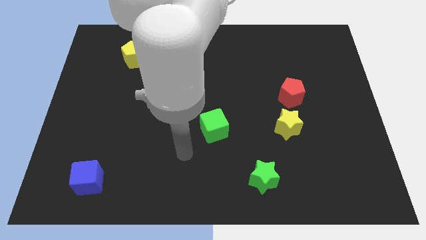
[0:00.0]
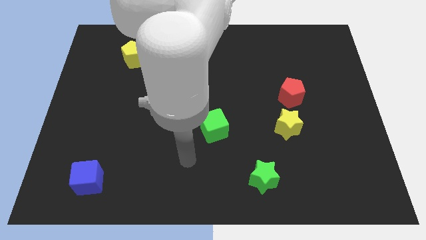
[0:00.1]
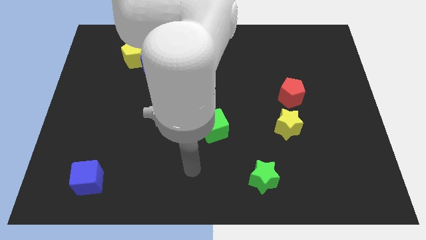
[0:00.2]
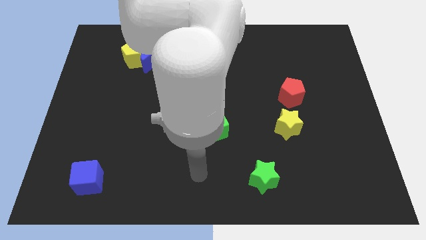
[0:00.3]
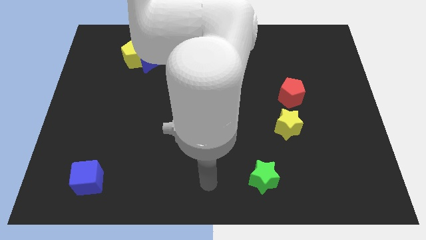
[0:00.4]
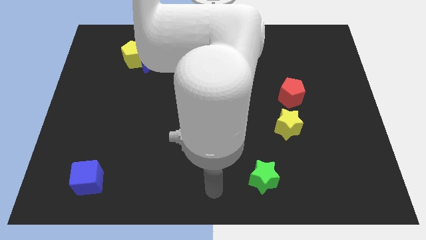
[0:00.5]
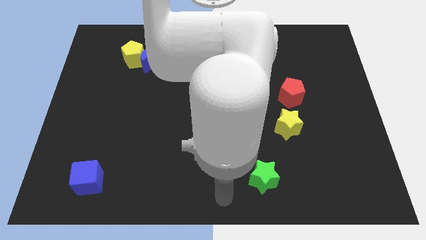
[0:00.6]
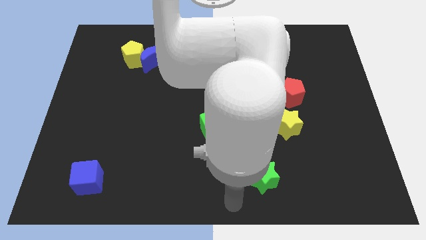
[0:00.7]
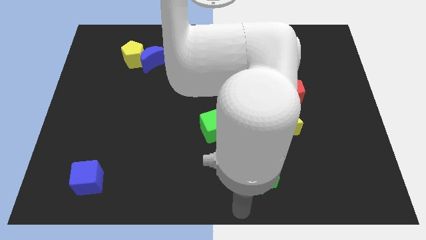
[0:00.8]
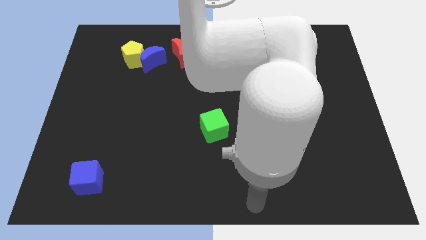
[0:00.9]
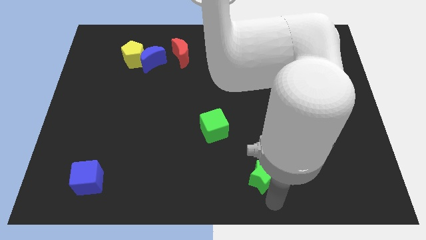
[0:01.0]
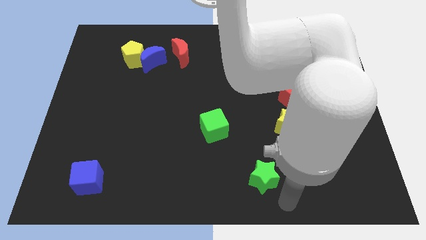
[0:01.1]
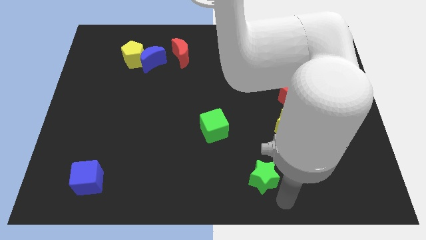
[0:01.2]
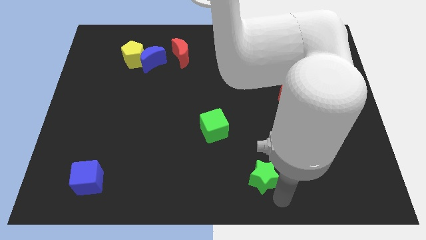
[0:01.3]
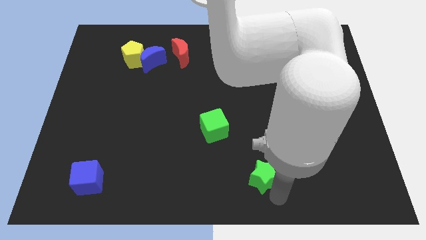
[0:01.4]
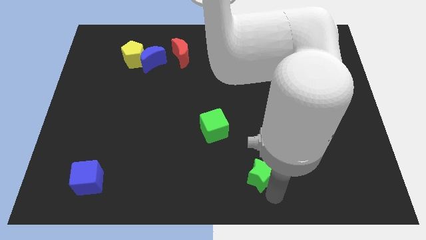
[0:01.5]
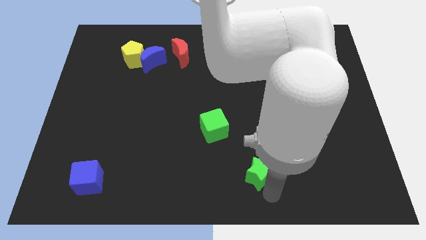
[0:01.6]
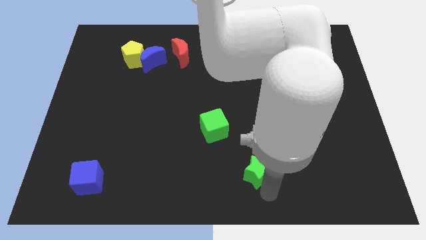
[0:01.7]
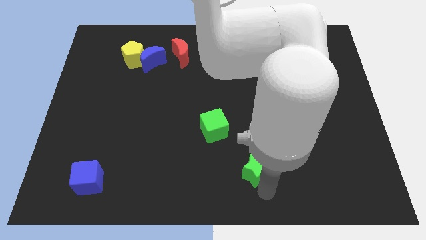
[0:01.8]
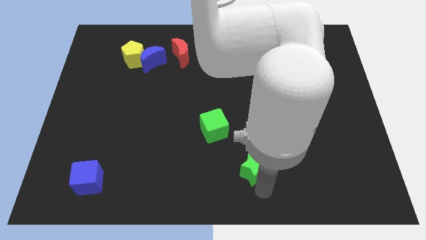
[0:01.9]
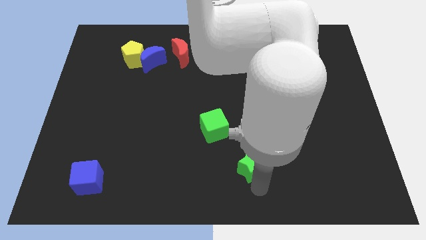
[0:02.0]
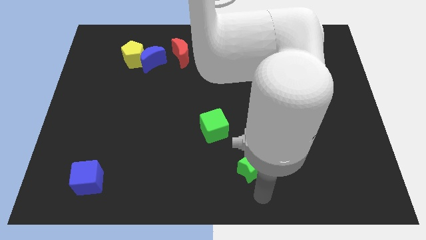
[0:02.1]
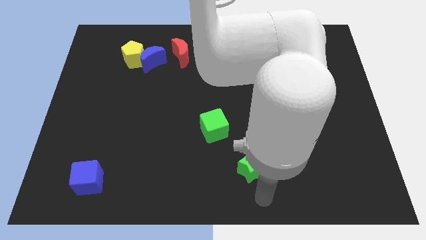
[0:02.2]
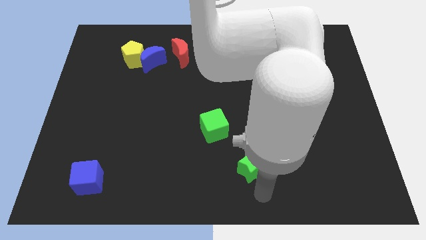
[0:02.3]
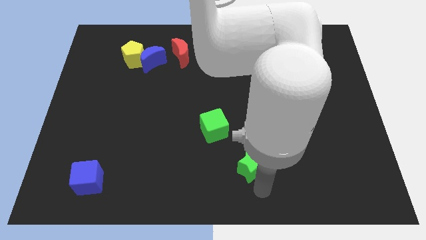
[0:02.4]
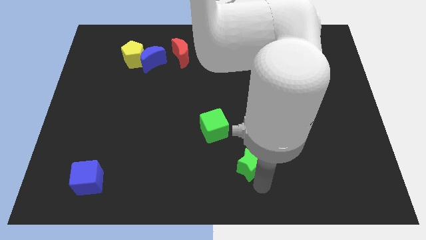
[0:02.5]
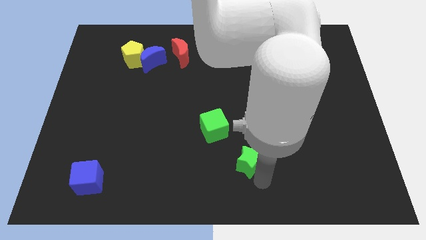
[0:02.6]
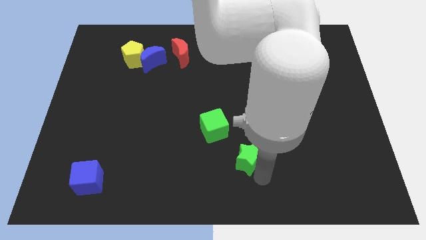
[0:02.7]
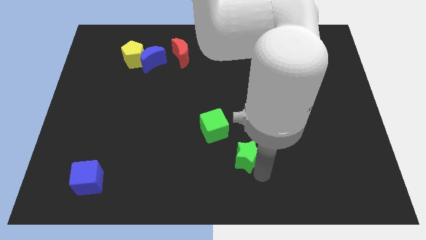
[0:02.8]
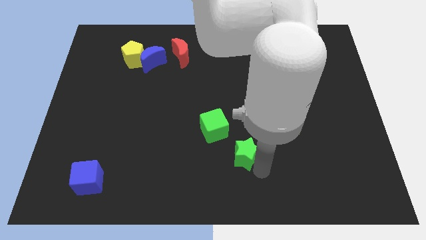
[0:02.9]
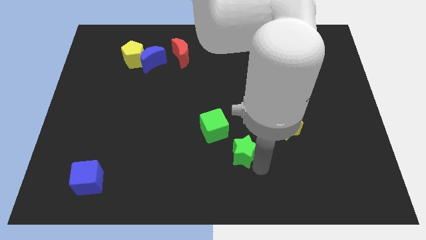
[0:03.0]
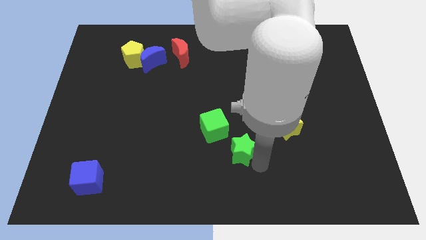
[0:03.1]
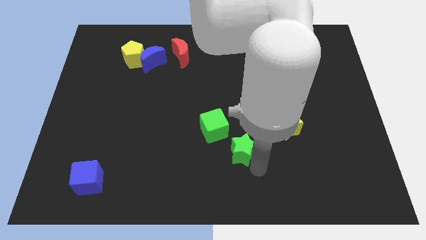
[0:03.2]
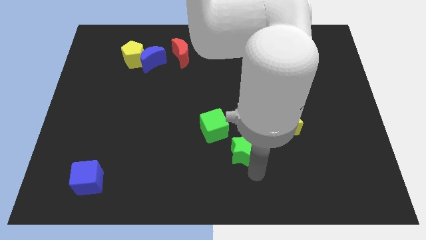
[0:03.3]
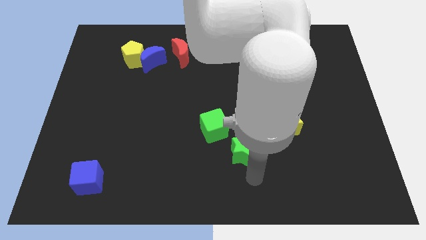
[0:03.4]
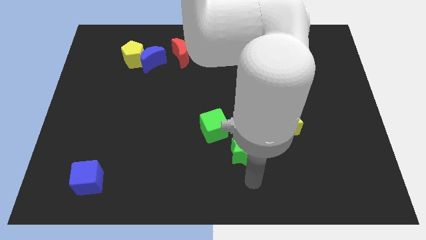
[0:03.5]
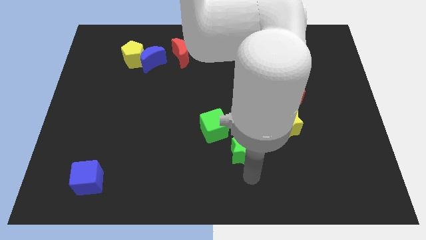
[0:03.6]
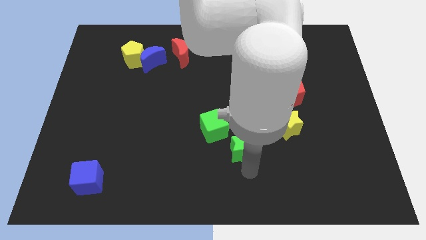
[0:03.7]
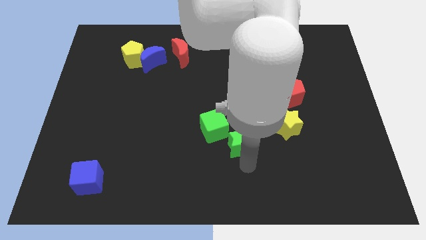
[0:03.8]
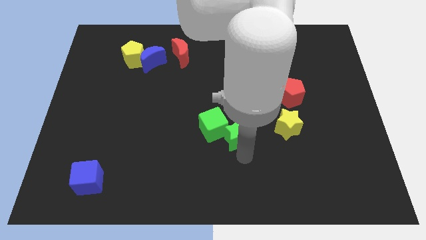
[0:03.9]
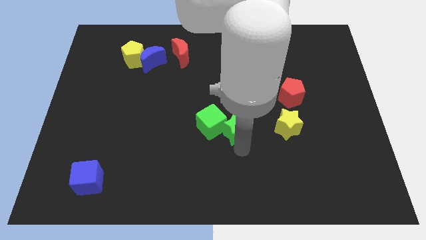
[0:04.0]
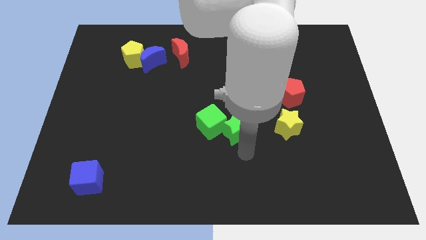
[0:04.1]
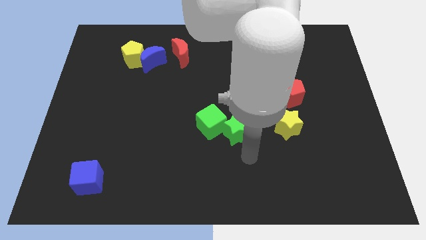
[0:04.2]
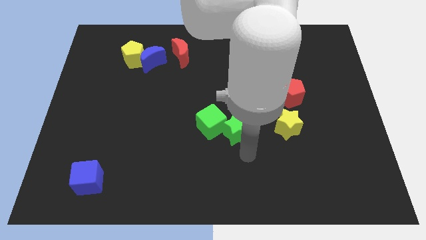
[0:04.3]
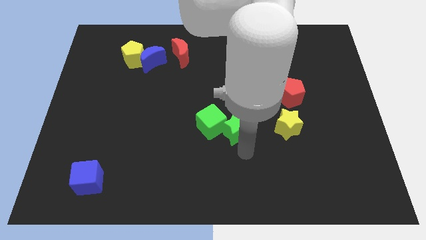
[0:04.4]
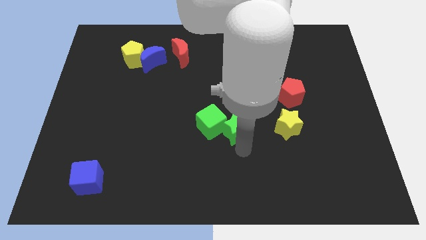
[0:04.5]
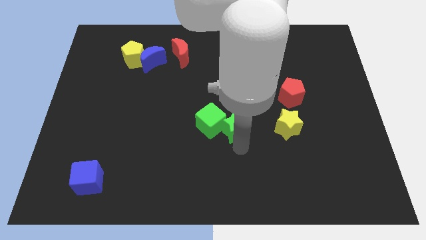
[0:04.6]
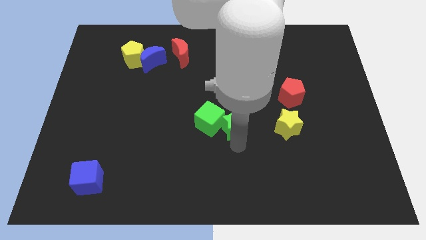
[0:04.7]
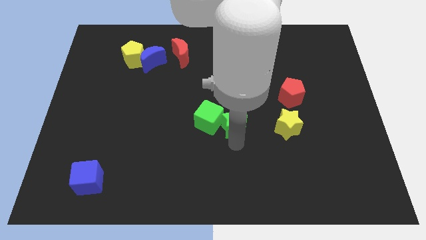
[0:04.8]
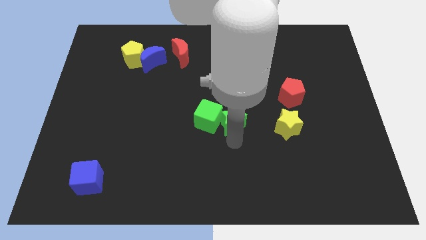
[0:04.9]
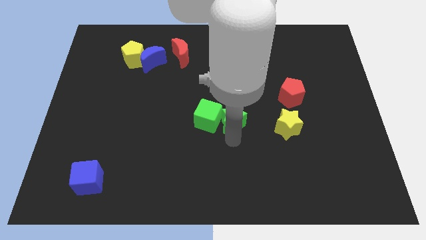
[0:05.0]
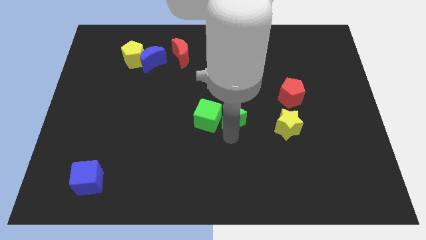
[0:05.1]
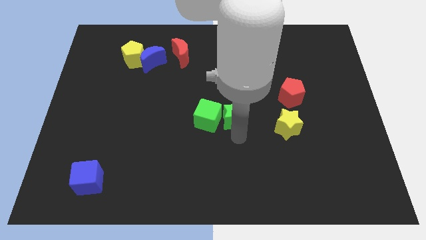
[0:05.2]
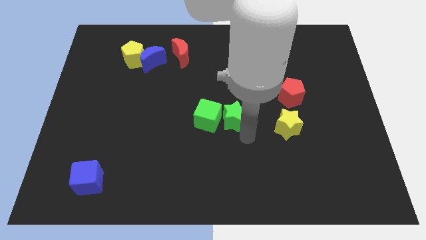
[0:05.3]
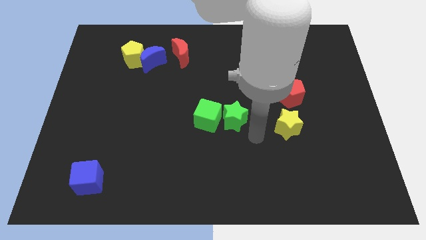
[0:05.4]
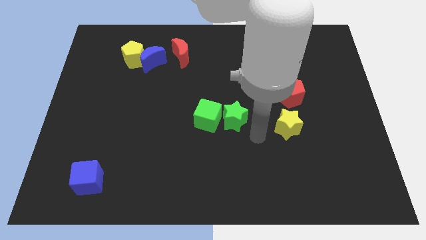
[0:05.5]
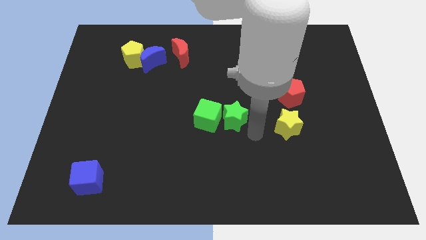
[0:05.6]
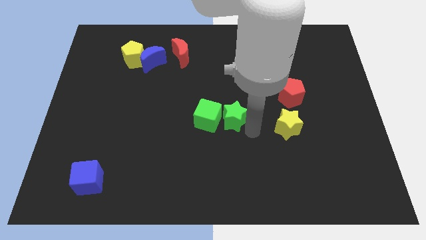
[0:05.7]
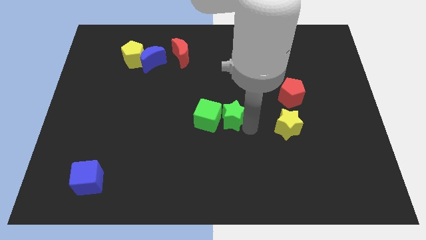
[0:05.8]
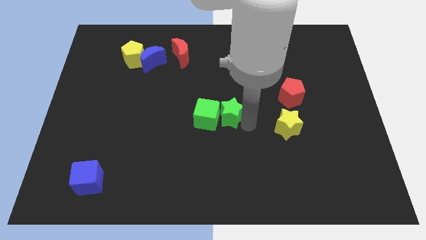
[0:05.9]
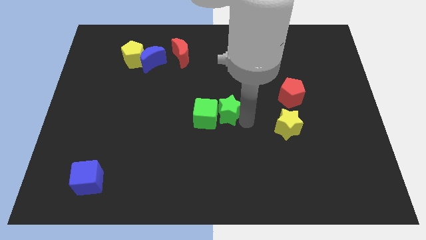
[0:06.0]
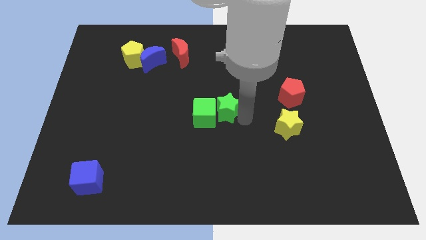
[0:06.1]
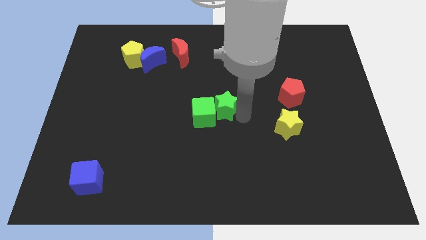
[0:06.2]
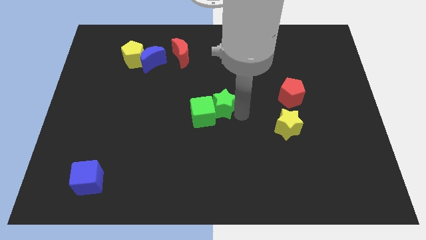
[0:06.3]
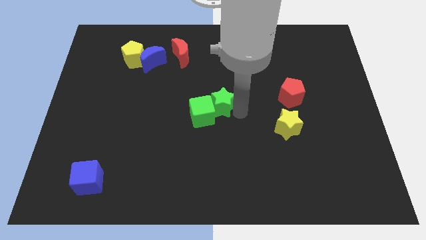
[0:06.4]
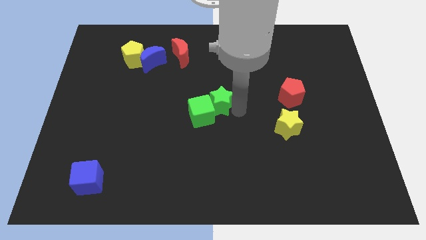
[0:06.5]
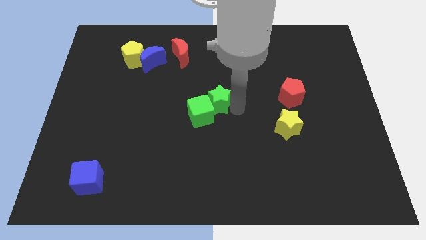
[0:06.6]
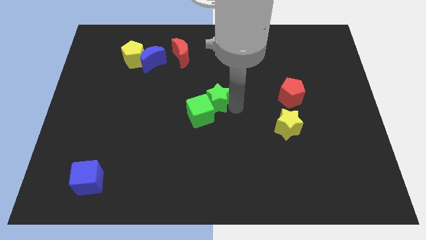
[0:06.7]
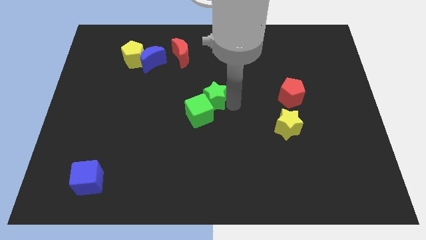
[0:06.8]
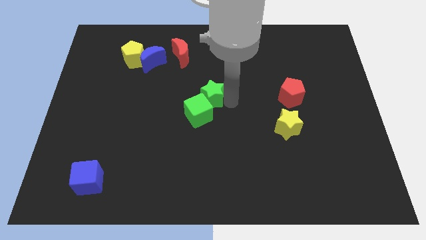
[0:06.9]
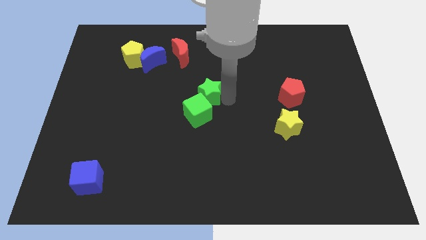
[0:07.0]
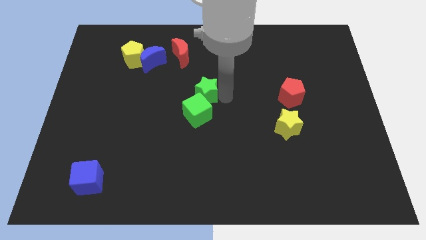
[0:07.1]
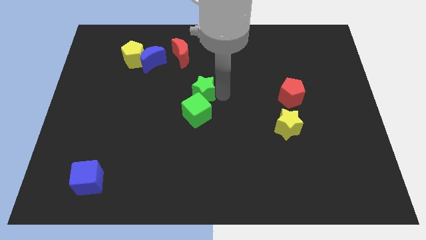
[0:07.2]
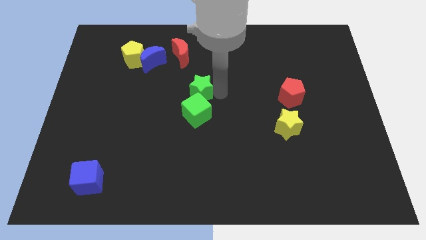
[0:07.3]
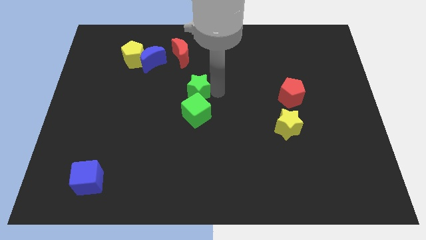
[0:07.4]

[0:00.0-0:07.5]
move the green star below the red moon

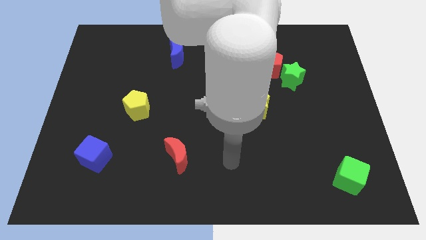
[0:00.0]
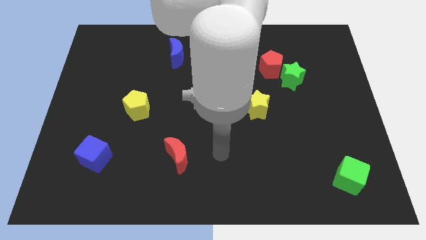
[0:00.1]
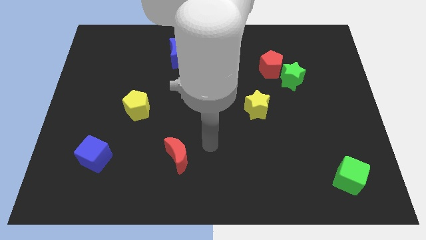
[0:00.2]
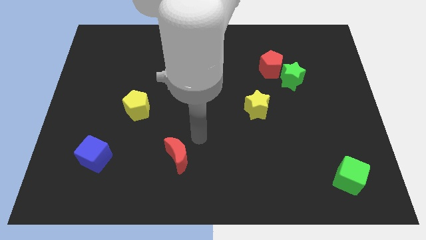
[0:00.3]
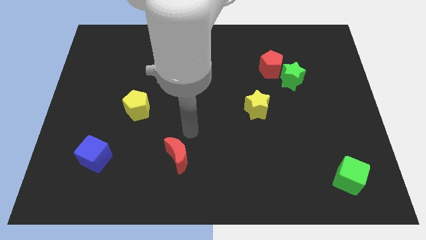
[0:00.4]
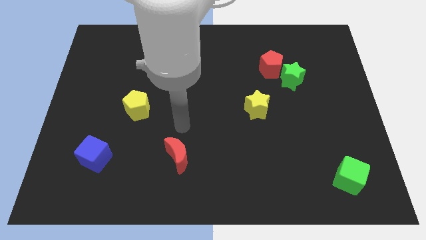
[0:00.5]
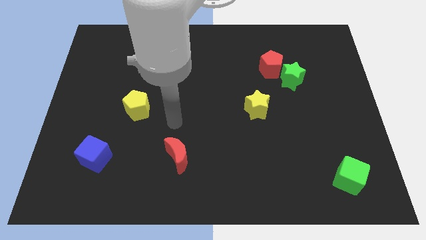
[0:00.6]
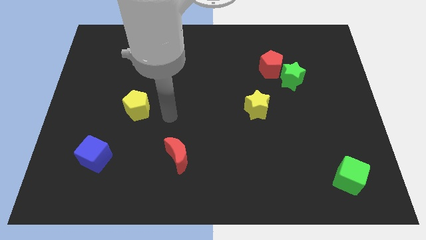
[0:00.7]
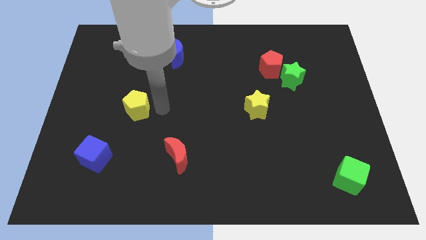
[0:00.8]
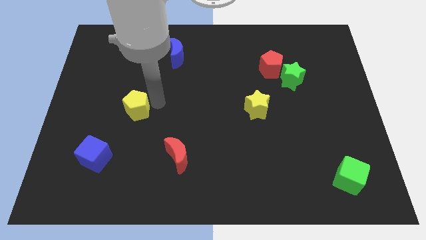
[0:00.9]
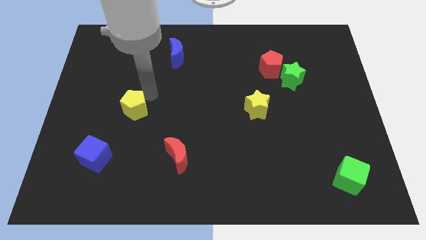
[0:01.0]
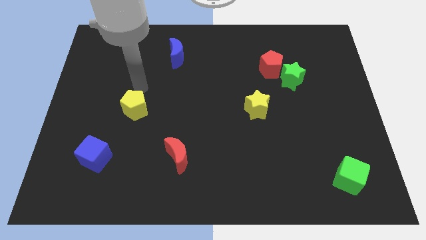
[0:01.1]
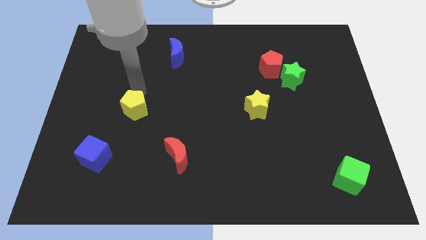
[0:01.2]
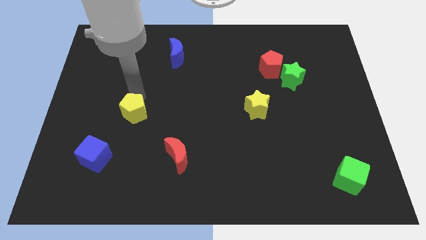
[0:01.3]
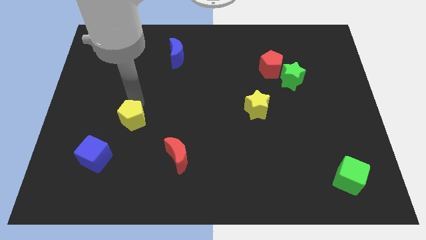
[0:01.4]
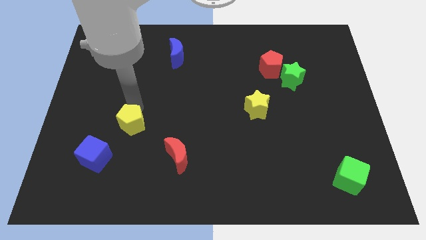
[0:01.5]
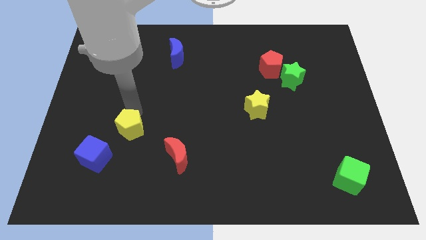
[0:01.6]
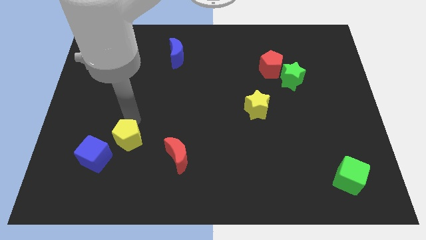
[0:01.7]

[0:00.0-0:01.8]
push the yellow pentagon left of the red moon
